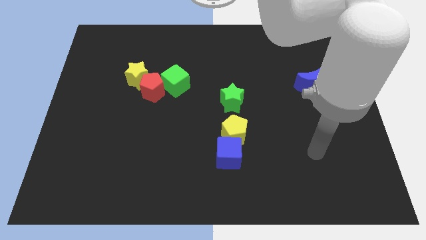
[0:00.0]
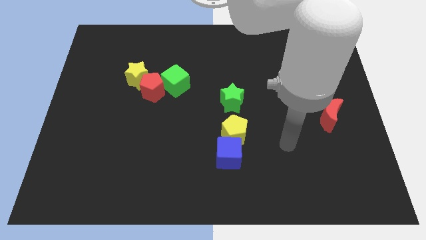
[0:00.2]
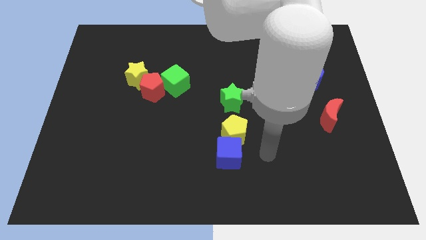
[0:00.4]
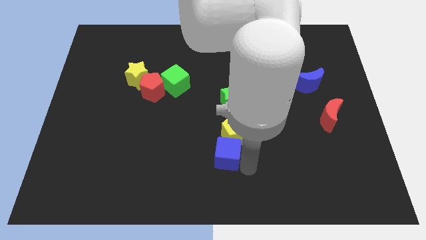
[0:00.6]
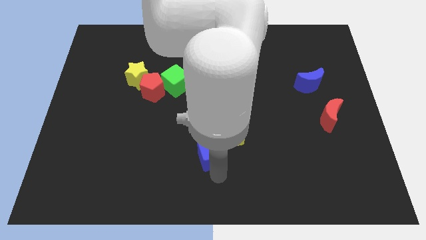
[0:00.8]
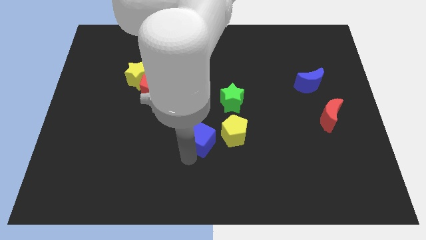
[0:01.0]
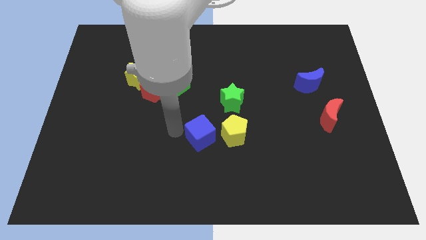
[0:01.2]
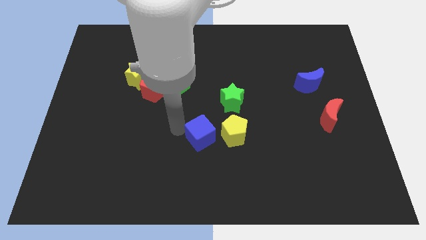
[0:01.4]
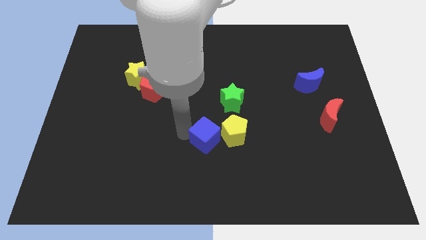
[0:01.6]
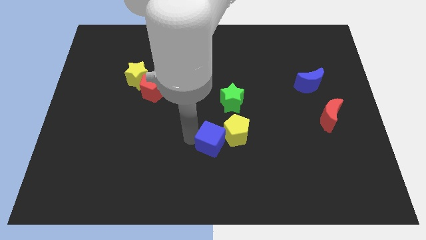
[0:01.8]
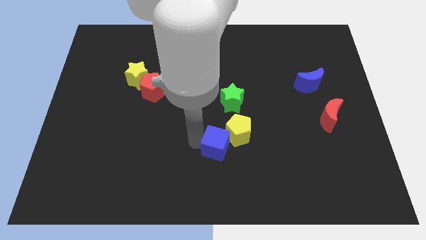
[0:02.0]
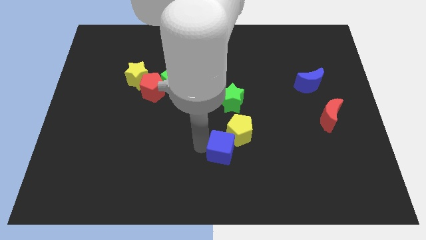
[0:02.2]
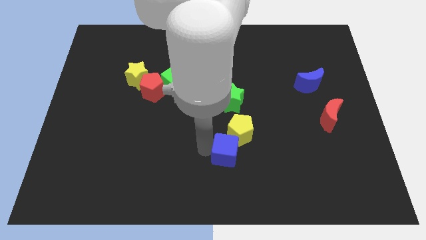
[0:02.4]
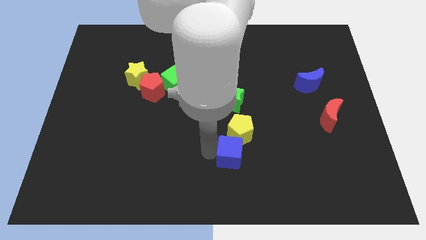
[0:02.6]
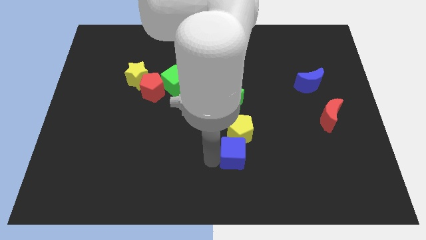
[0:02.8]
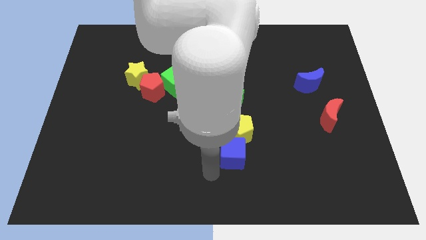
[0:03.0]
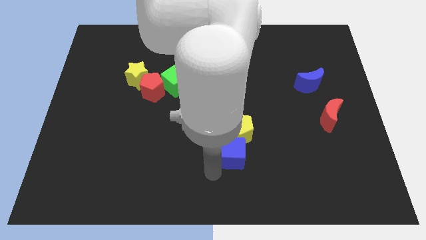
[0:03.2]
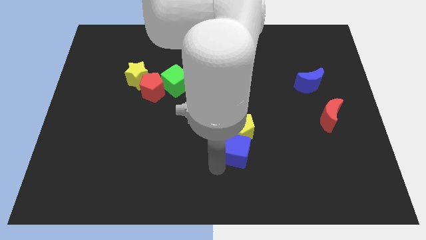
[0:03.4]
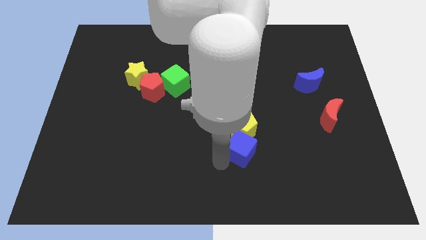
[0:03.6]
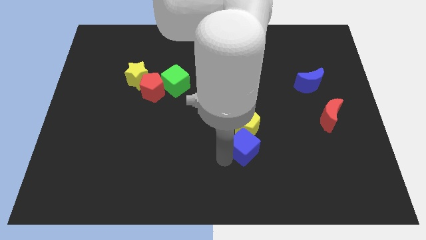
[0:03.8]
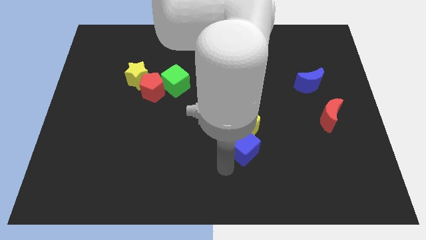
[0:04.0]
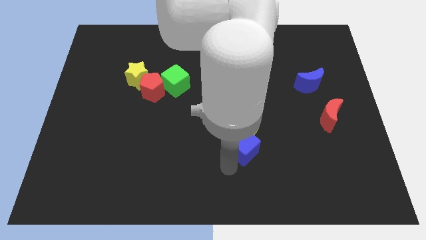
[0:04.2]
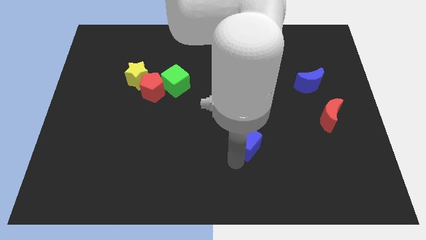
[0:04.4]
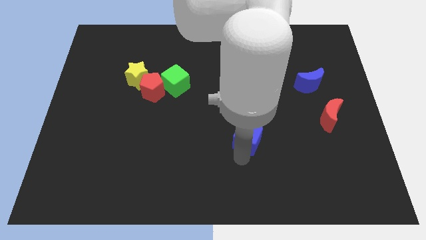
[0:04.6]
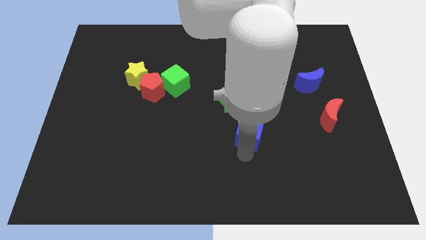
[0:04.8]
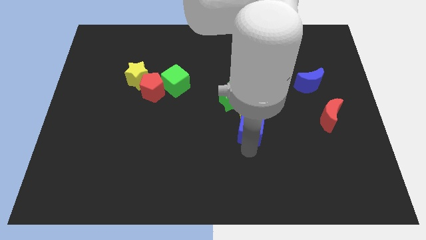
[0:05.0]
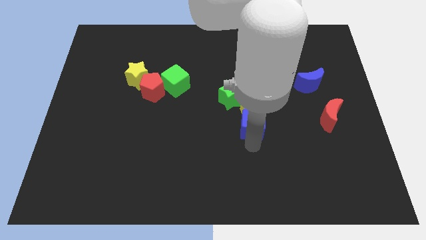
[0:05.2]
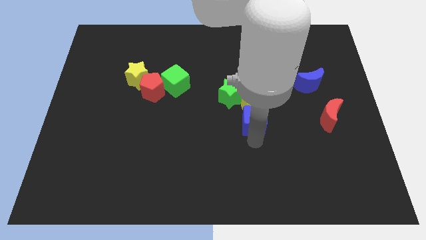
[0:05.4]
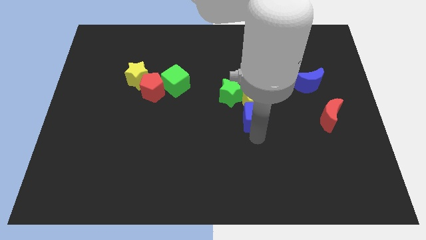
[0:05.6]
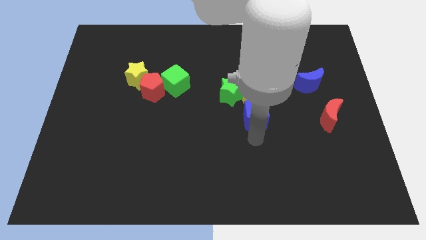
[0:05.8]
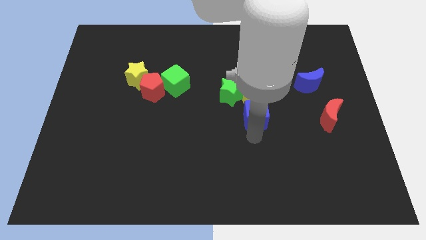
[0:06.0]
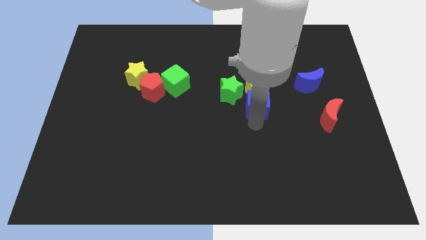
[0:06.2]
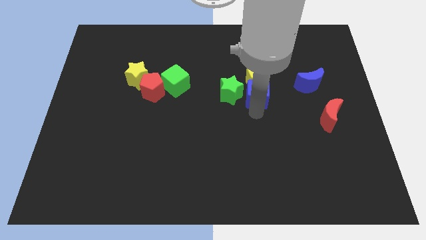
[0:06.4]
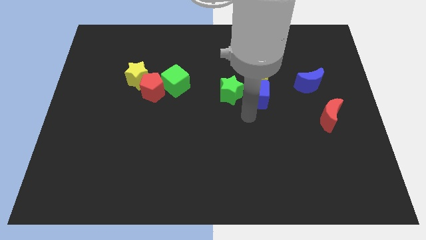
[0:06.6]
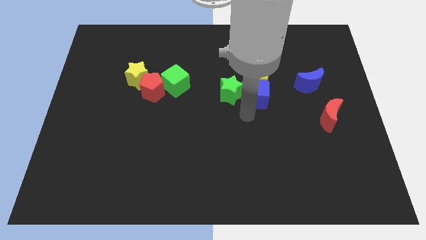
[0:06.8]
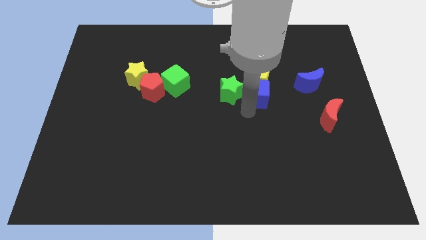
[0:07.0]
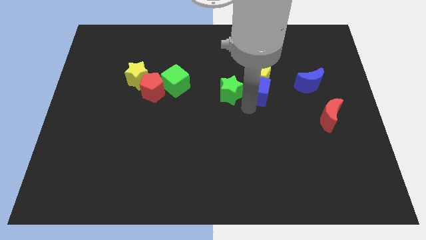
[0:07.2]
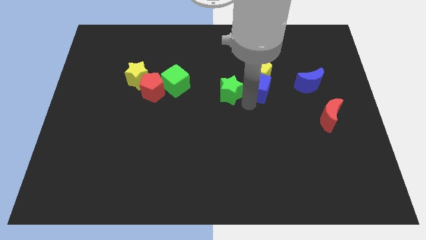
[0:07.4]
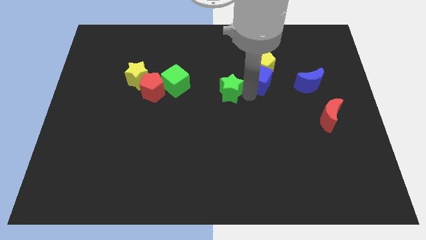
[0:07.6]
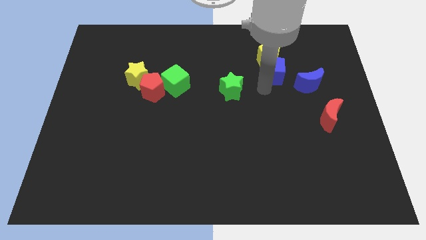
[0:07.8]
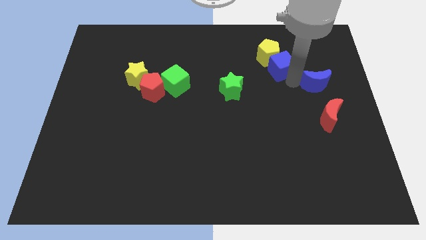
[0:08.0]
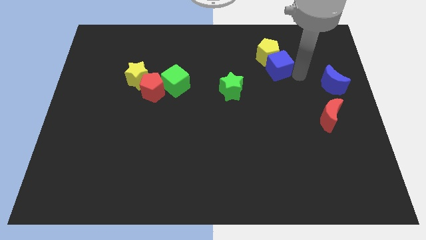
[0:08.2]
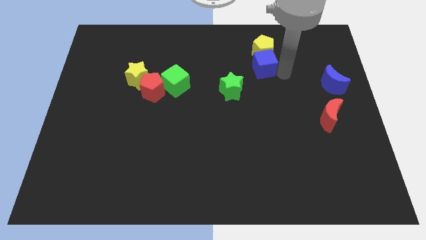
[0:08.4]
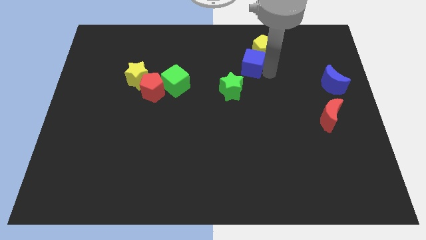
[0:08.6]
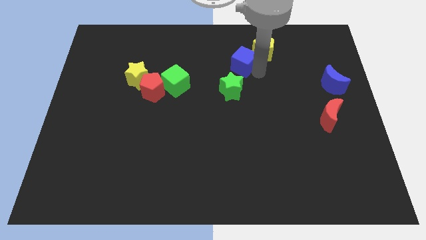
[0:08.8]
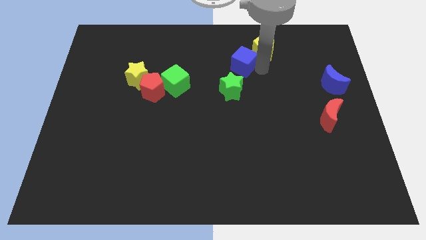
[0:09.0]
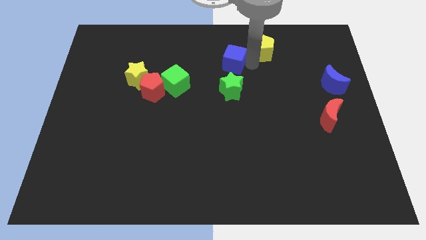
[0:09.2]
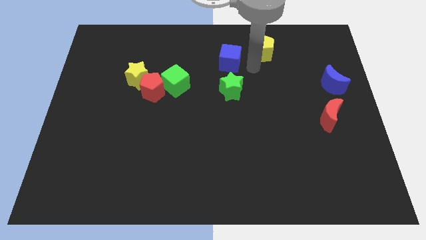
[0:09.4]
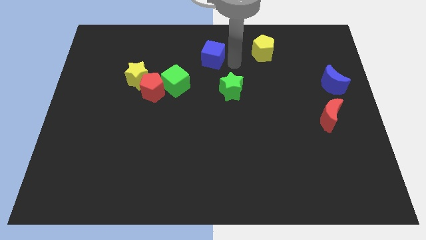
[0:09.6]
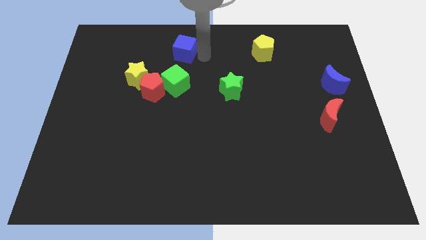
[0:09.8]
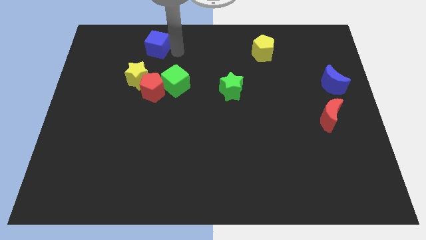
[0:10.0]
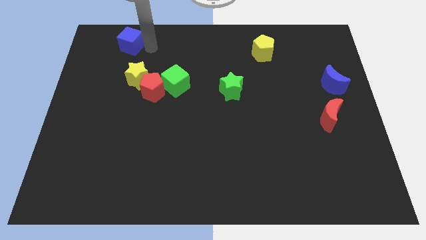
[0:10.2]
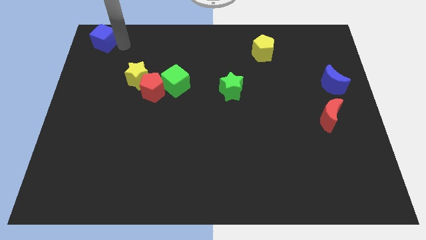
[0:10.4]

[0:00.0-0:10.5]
slide the blue cube to the top left of the board
